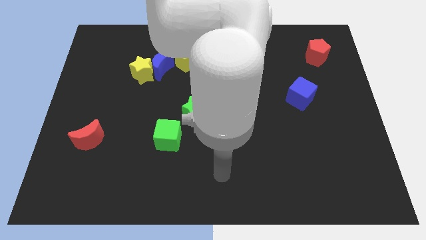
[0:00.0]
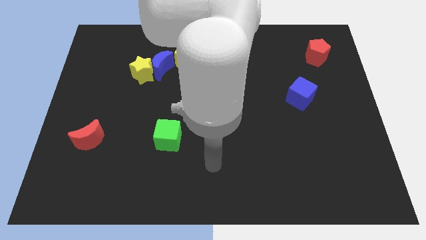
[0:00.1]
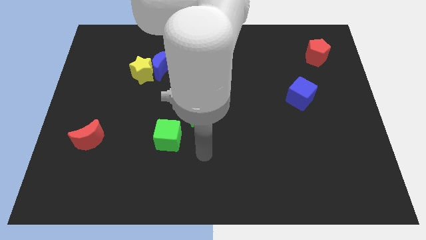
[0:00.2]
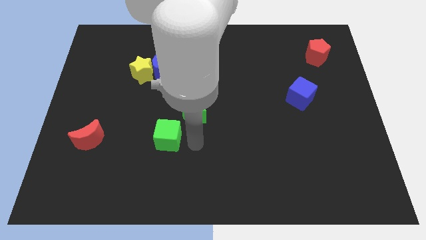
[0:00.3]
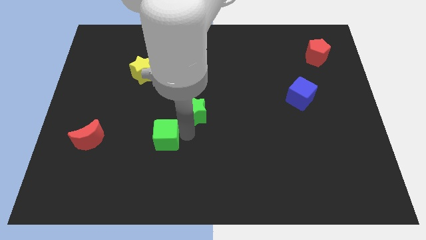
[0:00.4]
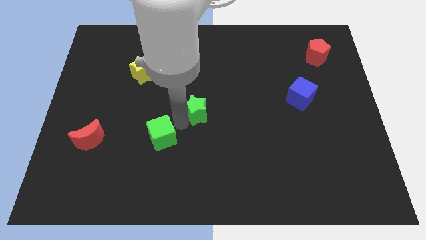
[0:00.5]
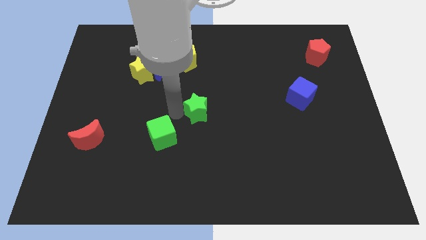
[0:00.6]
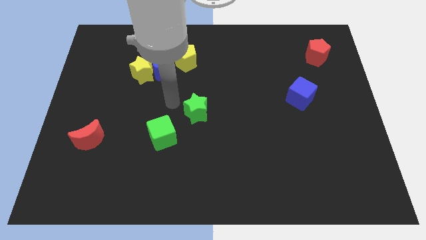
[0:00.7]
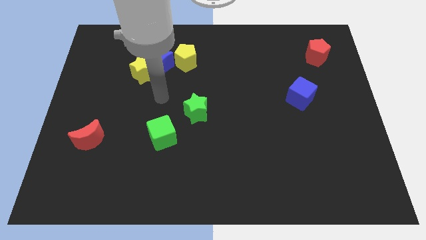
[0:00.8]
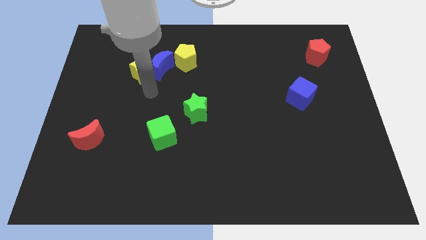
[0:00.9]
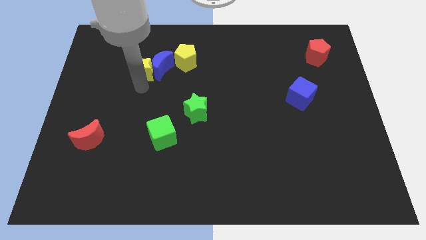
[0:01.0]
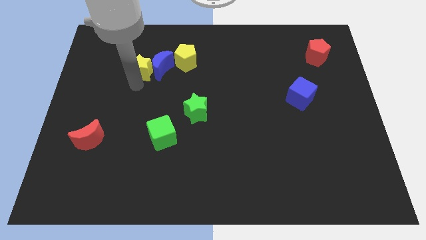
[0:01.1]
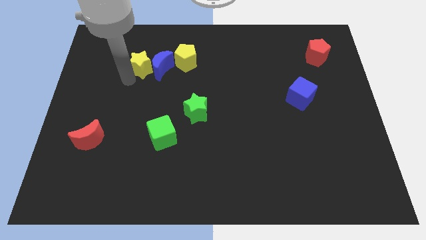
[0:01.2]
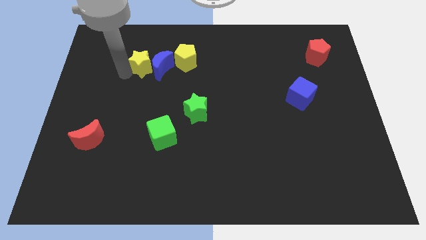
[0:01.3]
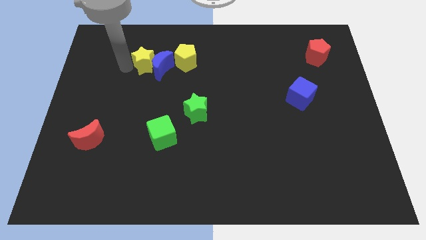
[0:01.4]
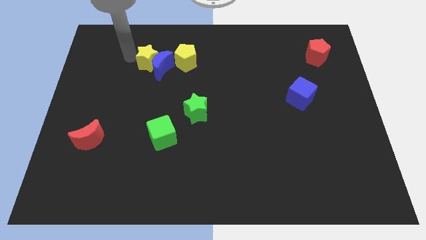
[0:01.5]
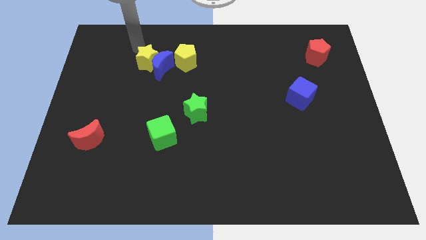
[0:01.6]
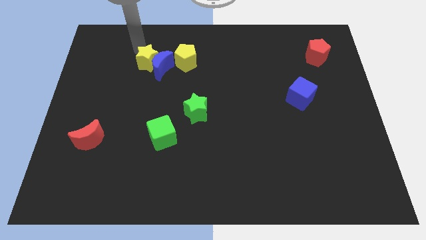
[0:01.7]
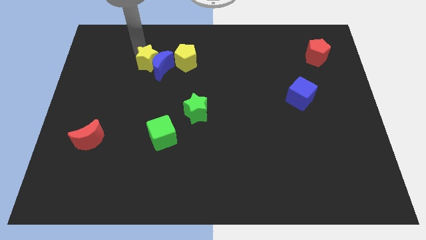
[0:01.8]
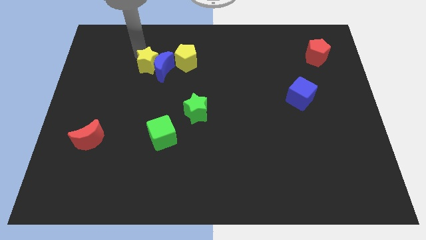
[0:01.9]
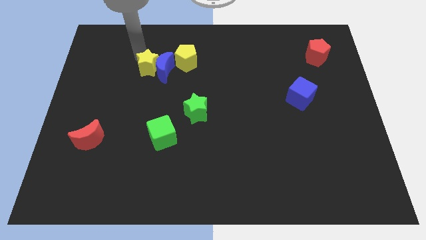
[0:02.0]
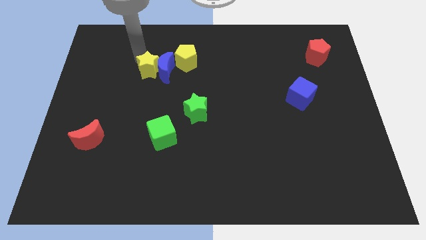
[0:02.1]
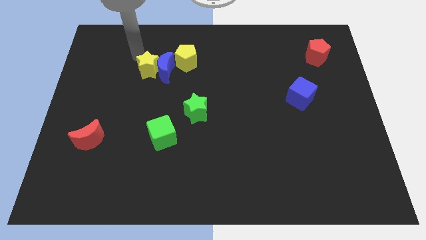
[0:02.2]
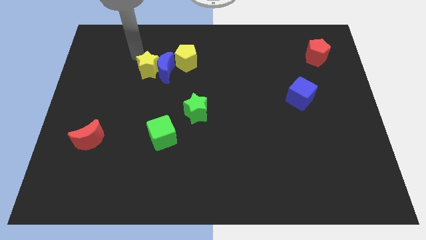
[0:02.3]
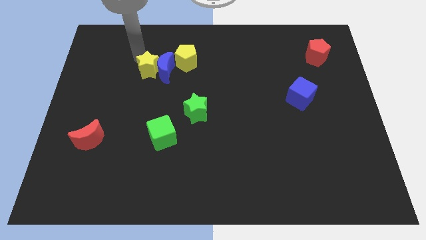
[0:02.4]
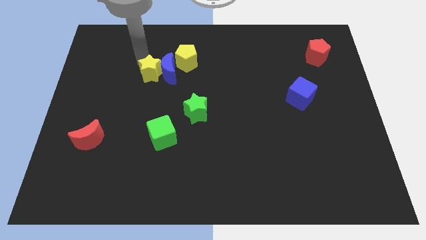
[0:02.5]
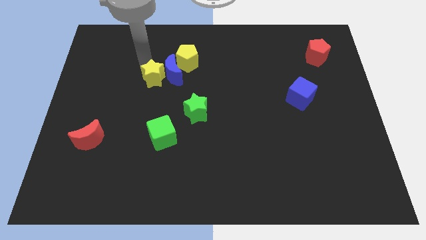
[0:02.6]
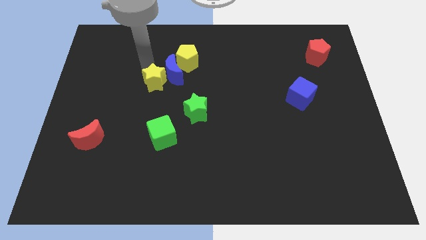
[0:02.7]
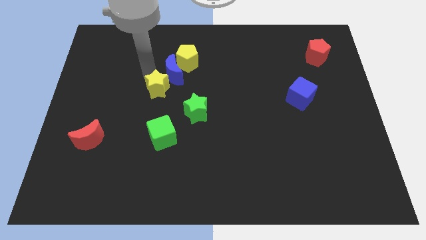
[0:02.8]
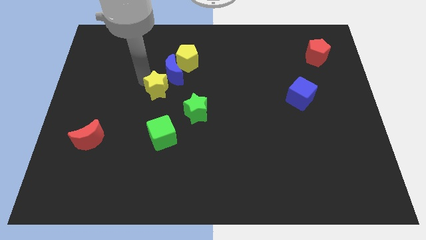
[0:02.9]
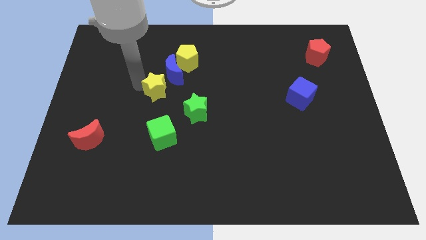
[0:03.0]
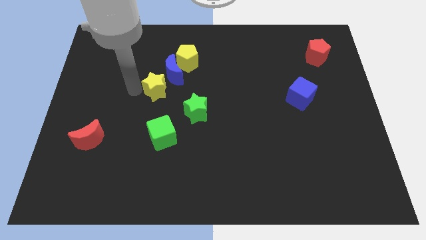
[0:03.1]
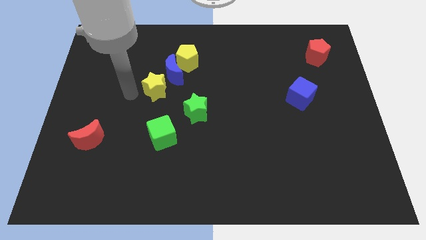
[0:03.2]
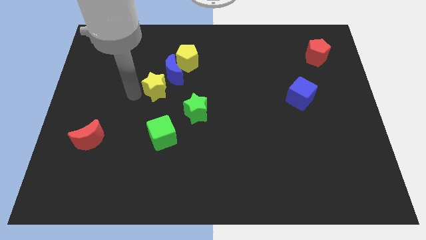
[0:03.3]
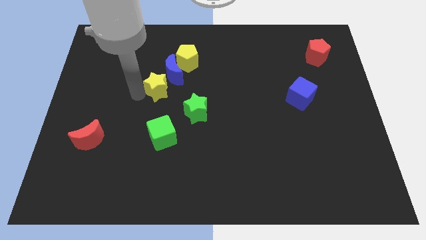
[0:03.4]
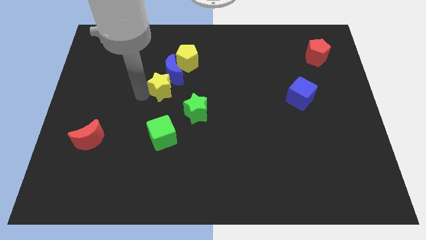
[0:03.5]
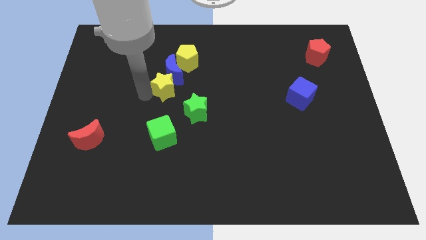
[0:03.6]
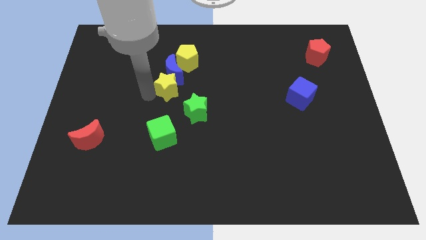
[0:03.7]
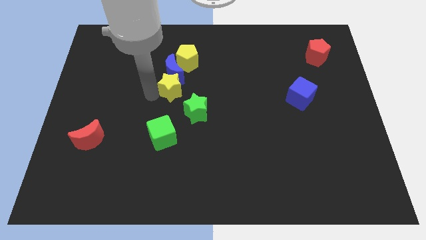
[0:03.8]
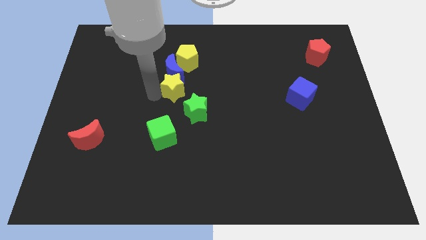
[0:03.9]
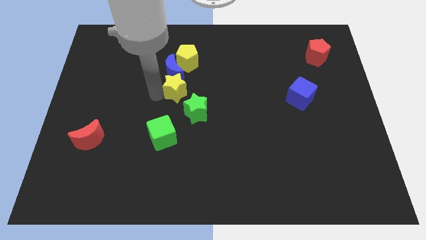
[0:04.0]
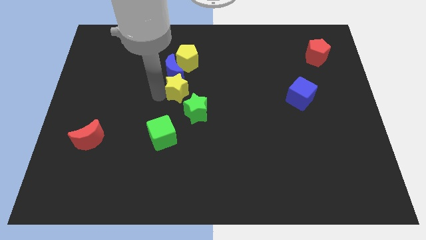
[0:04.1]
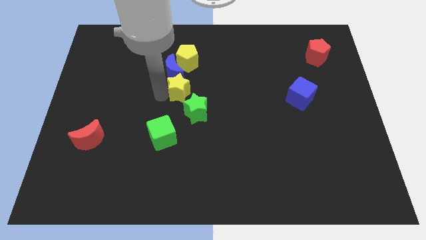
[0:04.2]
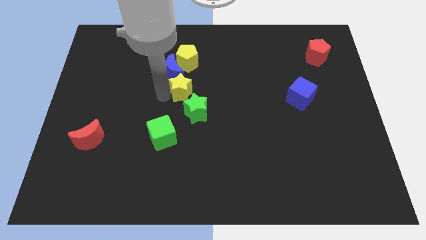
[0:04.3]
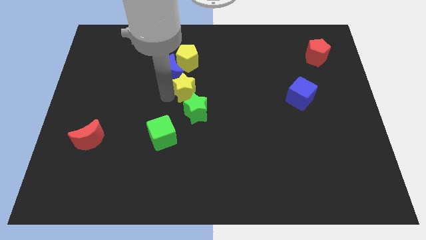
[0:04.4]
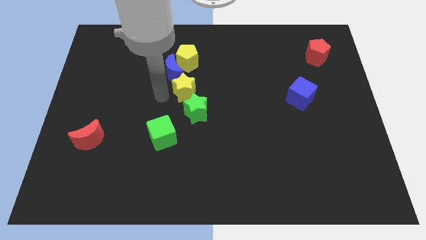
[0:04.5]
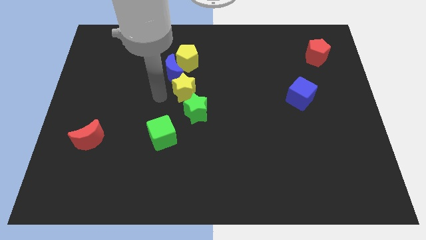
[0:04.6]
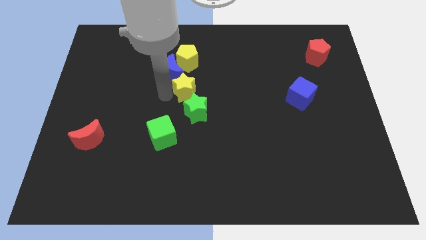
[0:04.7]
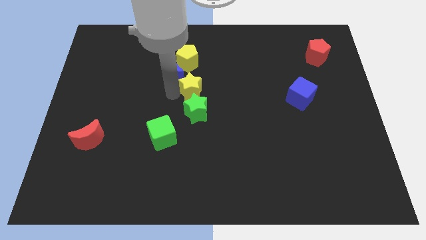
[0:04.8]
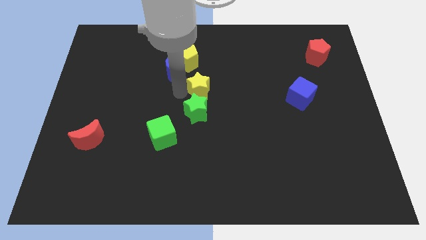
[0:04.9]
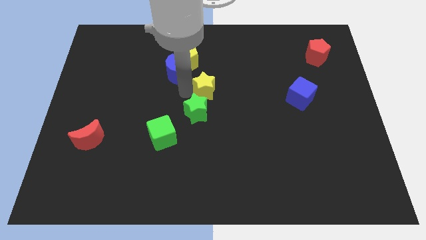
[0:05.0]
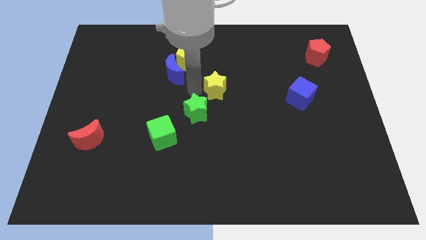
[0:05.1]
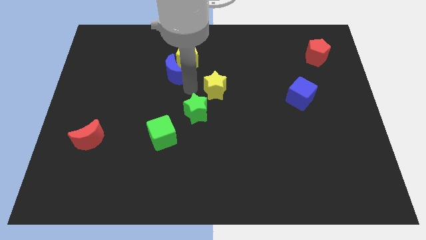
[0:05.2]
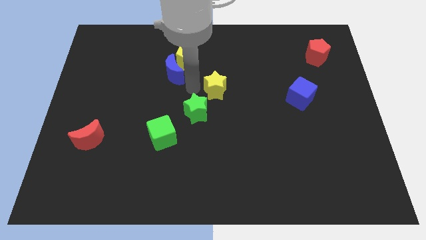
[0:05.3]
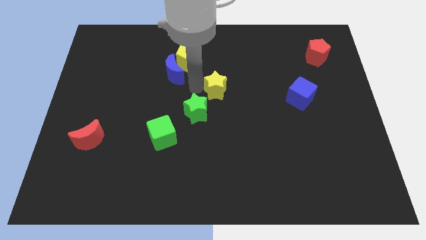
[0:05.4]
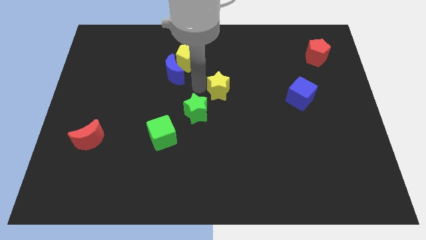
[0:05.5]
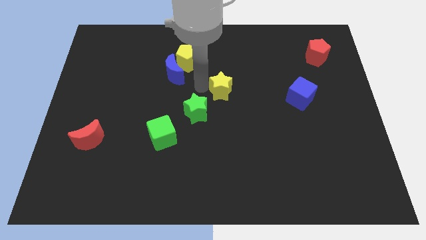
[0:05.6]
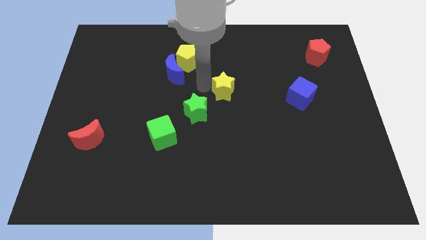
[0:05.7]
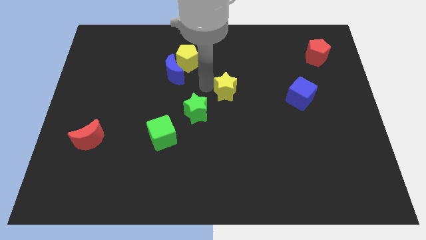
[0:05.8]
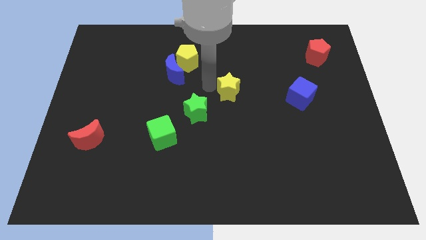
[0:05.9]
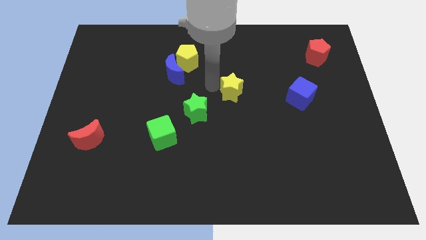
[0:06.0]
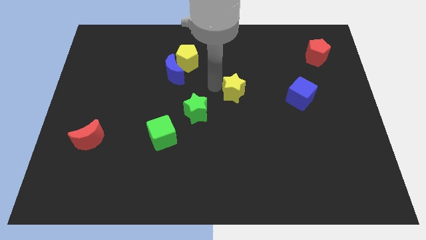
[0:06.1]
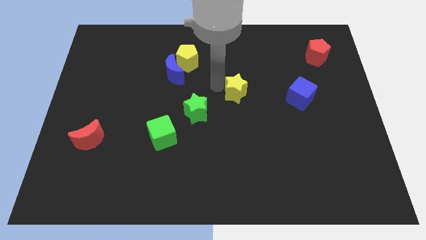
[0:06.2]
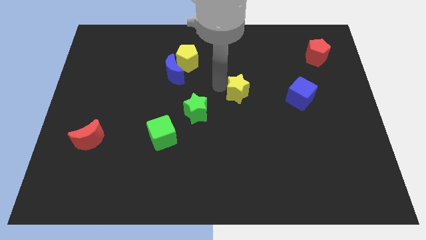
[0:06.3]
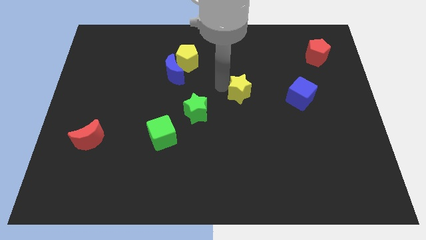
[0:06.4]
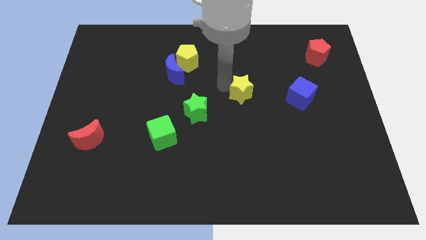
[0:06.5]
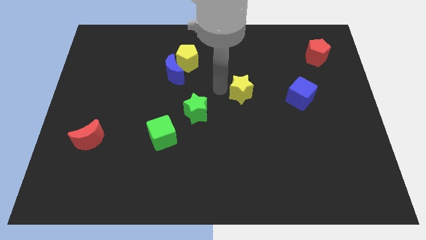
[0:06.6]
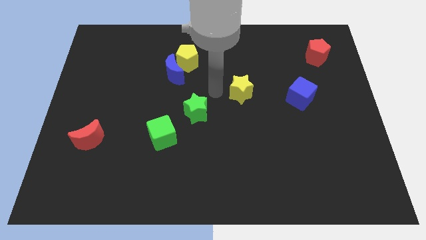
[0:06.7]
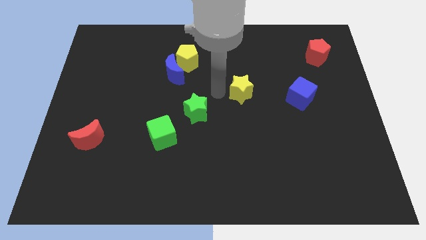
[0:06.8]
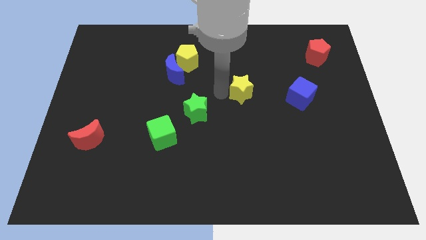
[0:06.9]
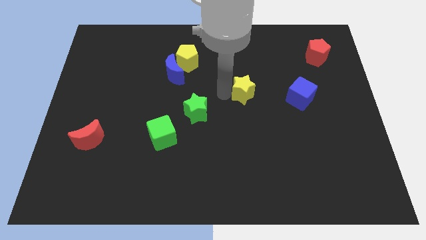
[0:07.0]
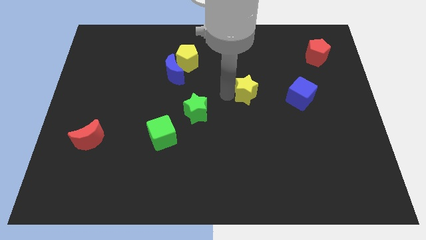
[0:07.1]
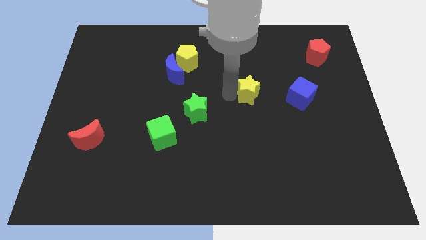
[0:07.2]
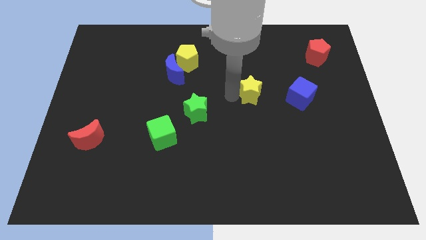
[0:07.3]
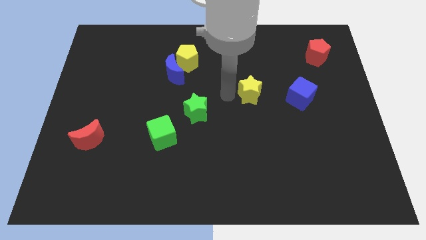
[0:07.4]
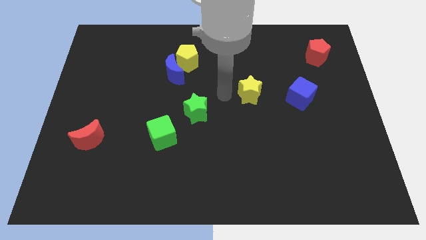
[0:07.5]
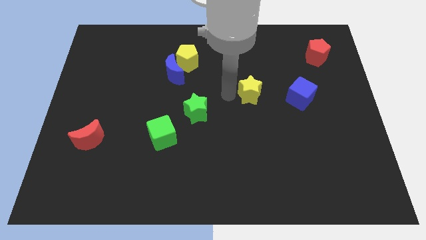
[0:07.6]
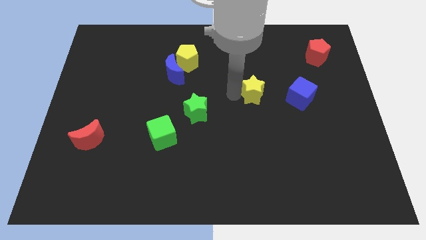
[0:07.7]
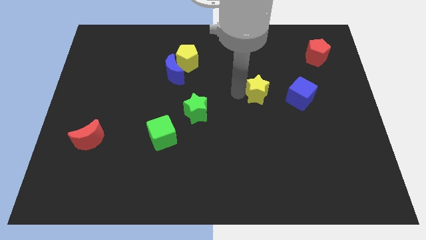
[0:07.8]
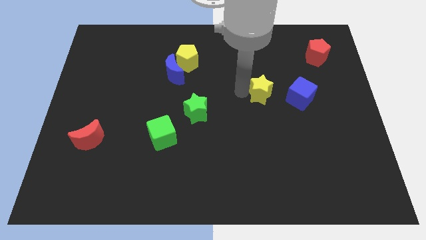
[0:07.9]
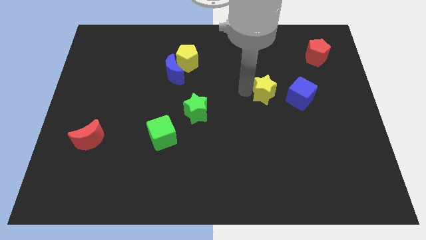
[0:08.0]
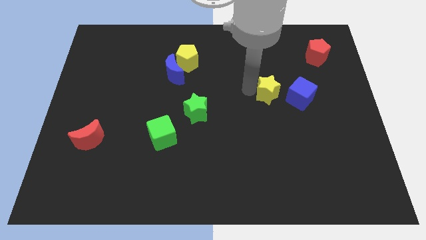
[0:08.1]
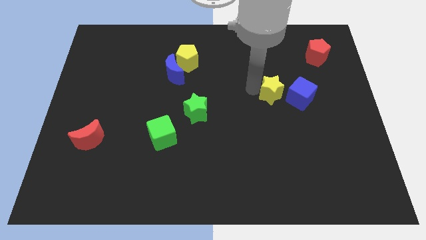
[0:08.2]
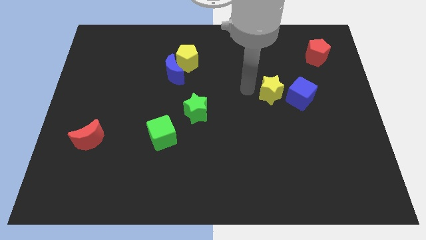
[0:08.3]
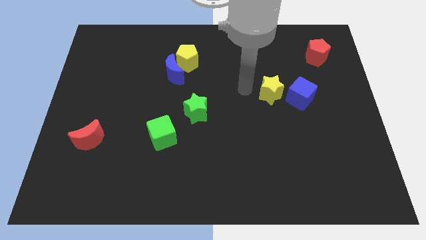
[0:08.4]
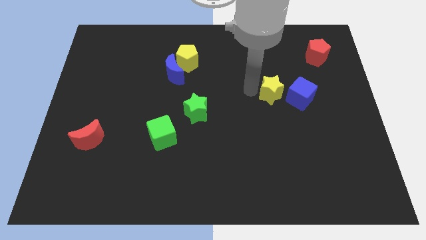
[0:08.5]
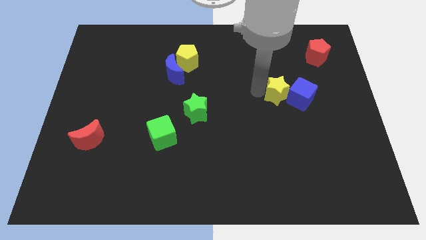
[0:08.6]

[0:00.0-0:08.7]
put the yellow star to the blue cube
